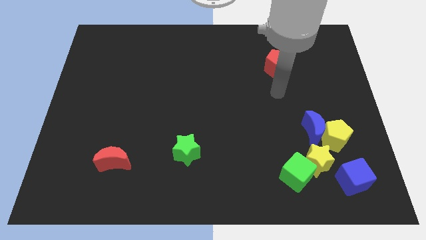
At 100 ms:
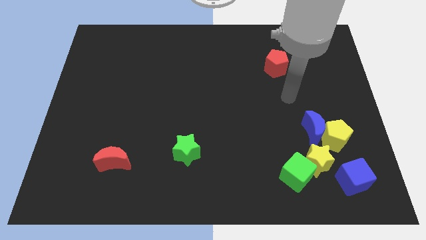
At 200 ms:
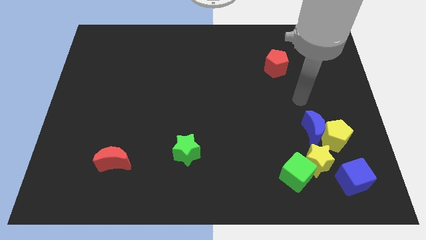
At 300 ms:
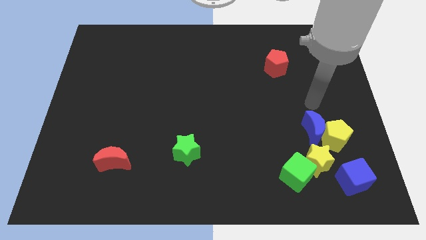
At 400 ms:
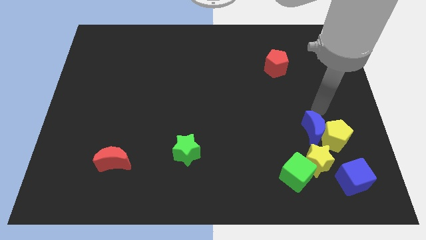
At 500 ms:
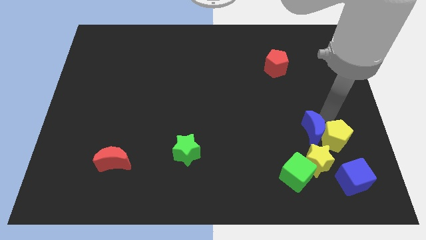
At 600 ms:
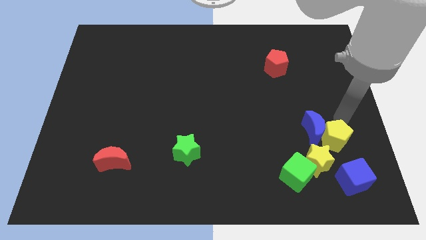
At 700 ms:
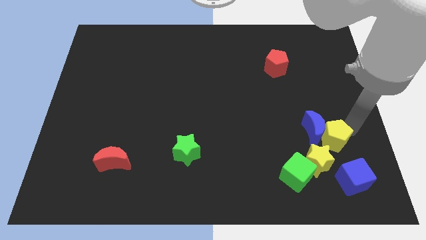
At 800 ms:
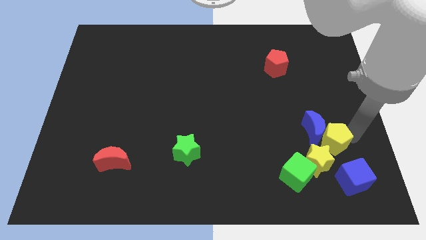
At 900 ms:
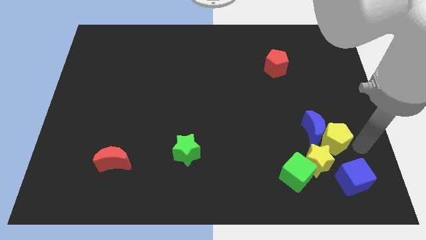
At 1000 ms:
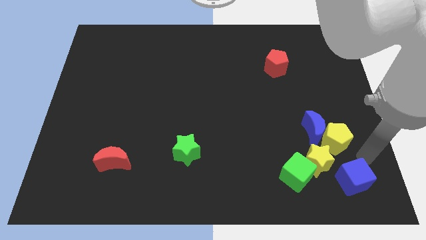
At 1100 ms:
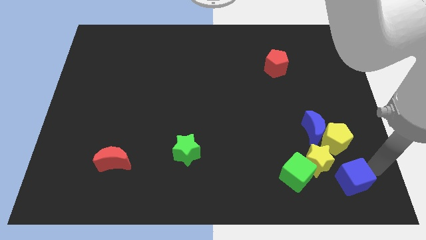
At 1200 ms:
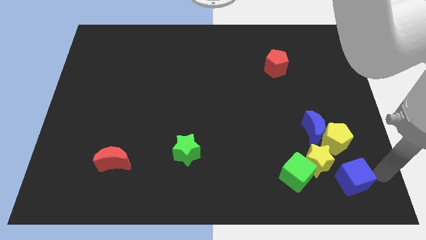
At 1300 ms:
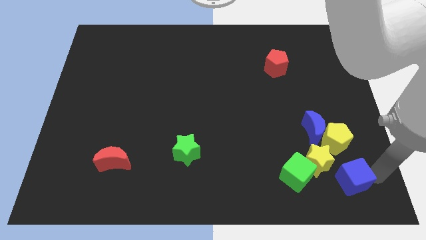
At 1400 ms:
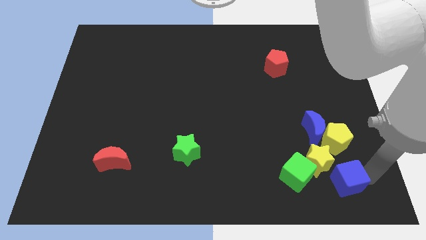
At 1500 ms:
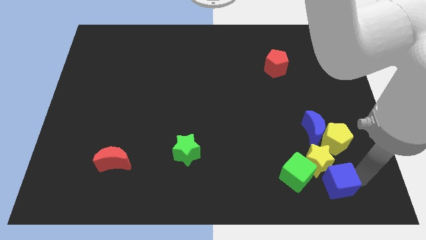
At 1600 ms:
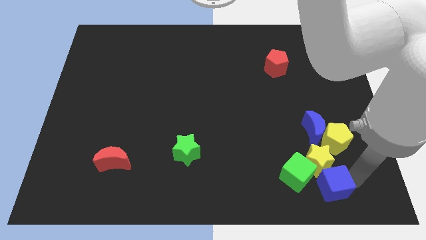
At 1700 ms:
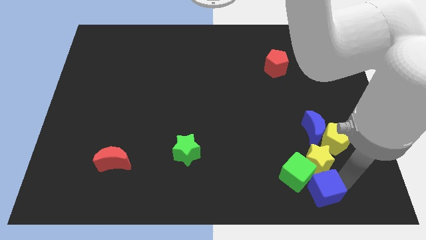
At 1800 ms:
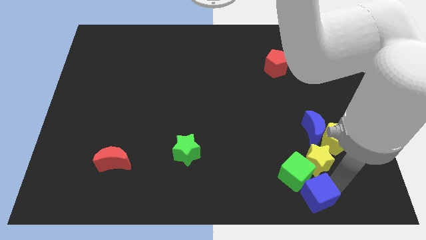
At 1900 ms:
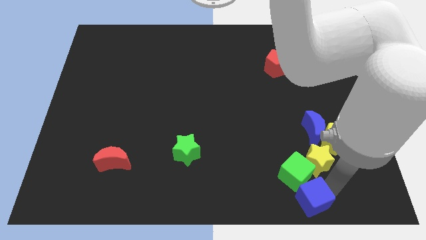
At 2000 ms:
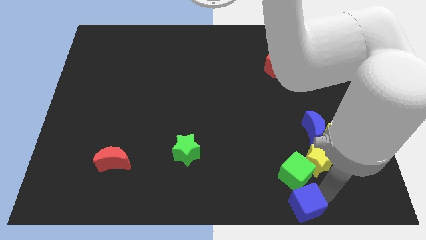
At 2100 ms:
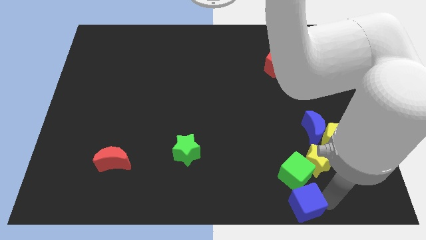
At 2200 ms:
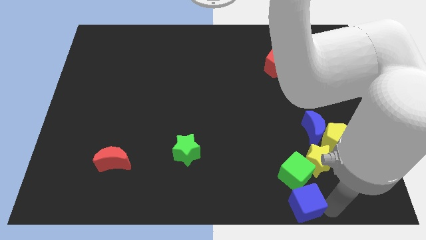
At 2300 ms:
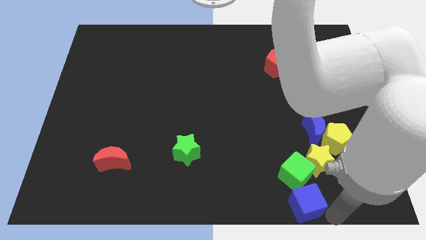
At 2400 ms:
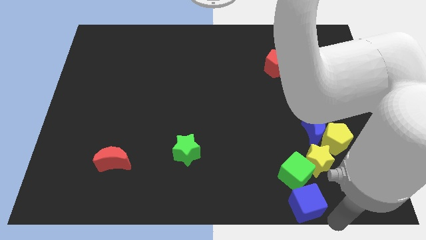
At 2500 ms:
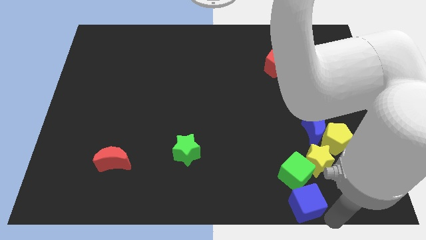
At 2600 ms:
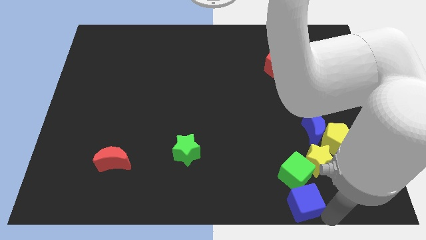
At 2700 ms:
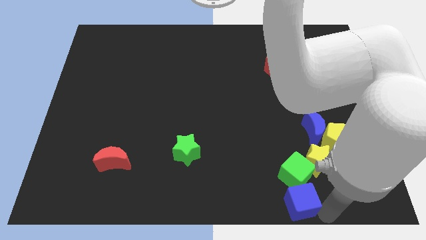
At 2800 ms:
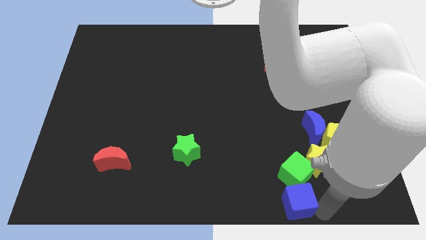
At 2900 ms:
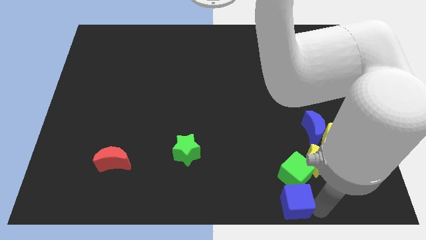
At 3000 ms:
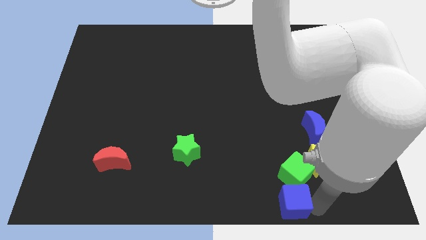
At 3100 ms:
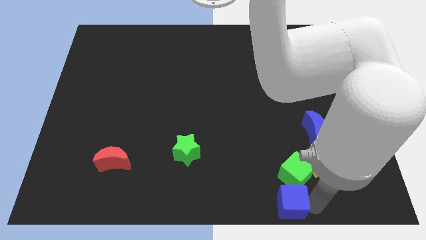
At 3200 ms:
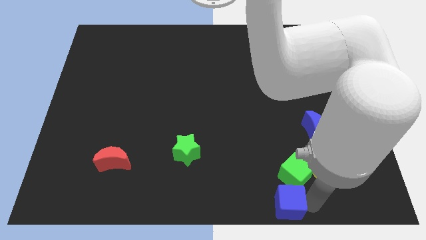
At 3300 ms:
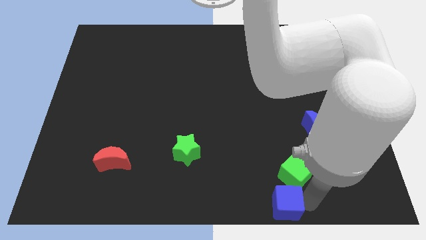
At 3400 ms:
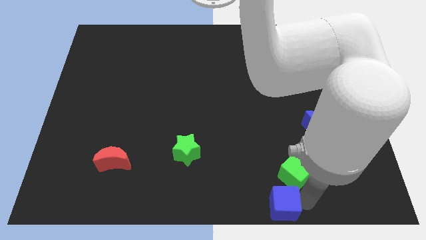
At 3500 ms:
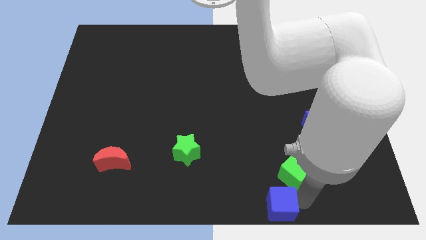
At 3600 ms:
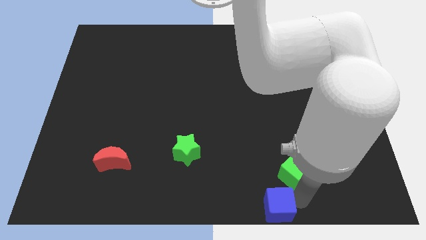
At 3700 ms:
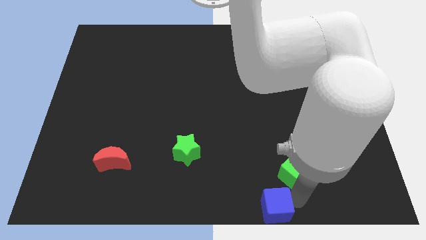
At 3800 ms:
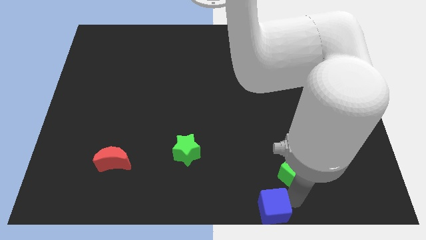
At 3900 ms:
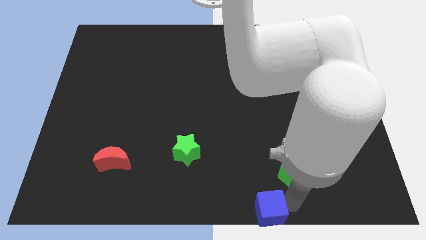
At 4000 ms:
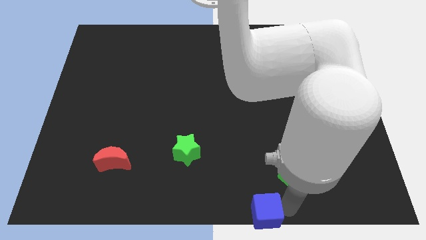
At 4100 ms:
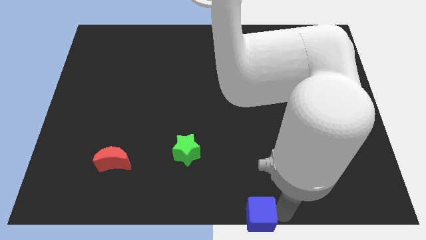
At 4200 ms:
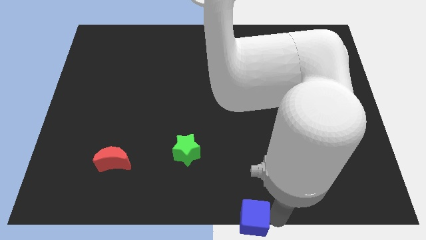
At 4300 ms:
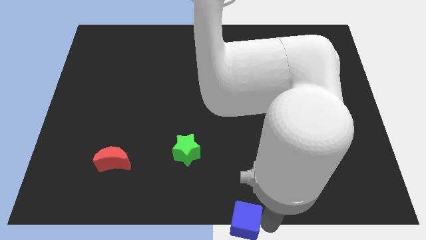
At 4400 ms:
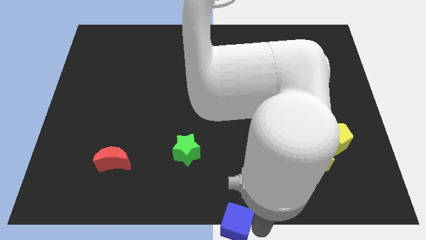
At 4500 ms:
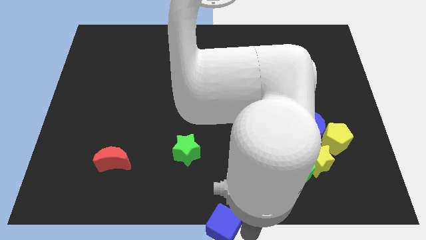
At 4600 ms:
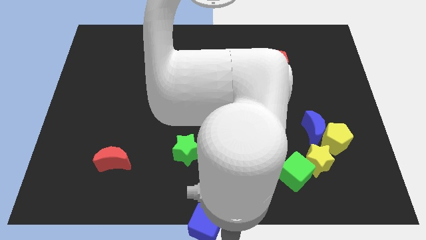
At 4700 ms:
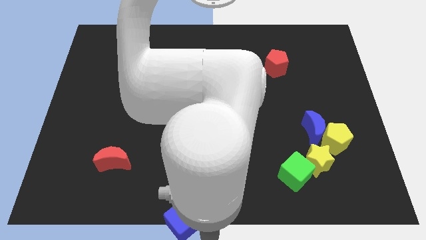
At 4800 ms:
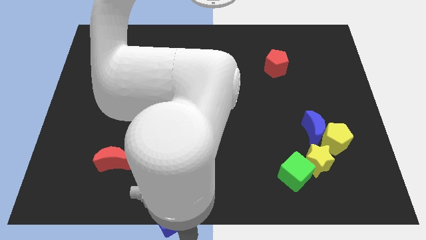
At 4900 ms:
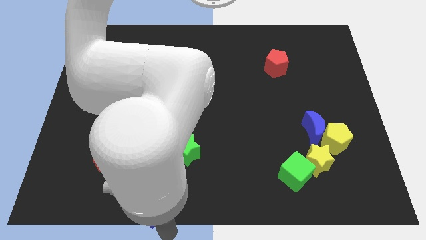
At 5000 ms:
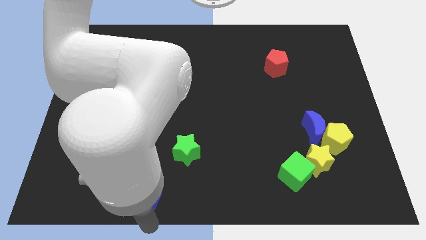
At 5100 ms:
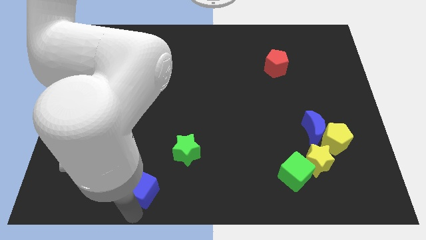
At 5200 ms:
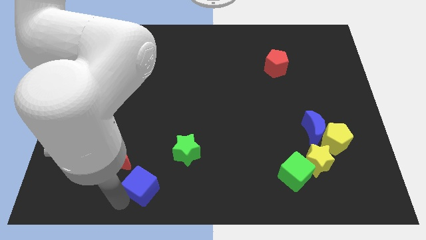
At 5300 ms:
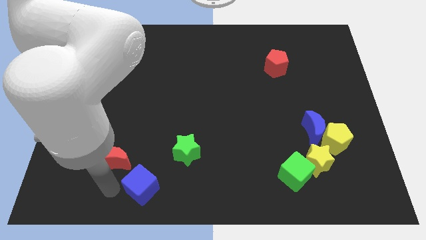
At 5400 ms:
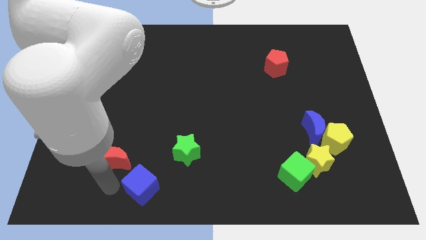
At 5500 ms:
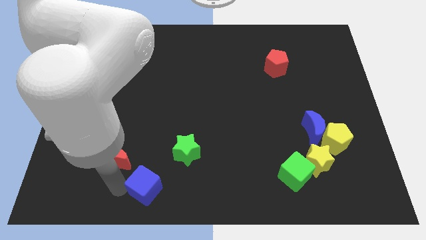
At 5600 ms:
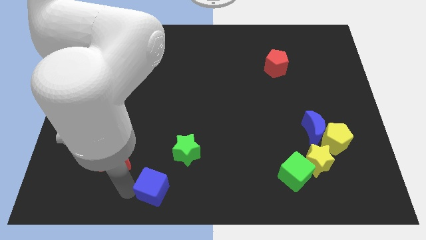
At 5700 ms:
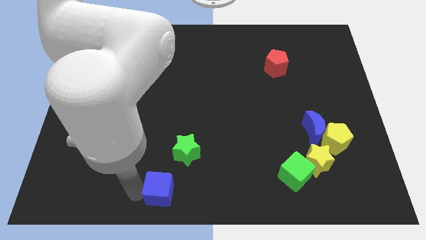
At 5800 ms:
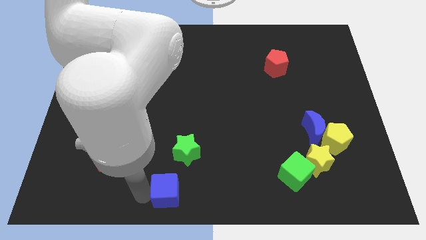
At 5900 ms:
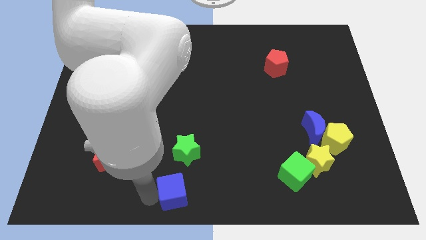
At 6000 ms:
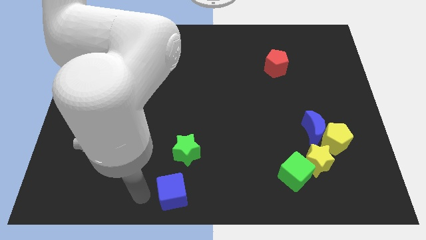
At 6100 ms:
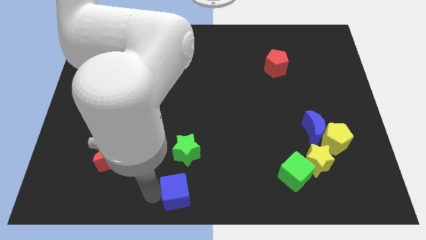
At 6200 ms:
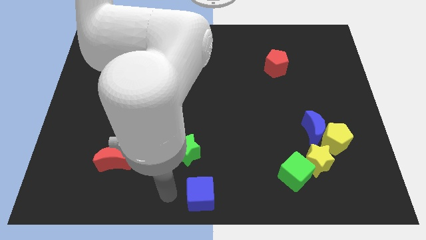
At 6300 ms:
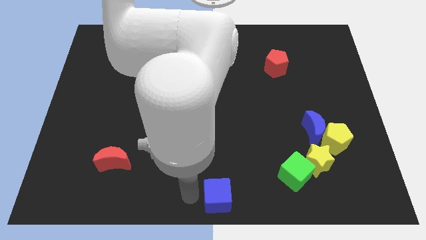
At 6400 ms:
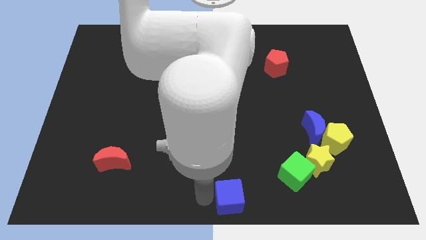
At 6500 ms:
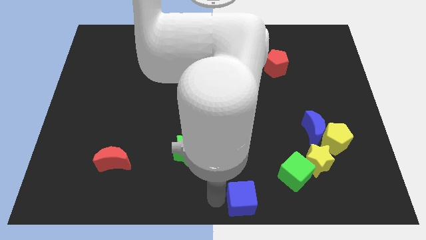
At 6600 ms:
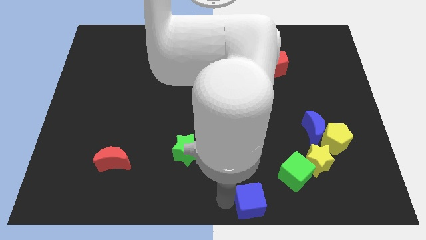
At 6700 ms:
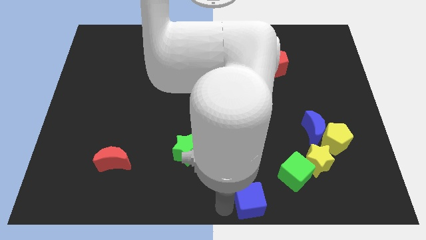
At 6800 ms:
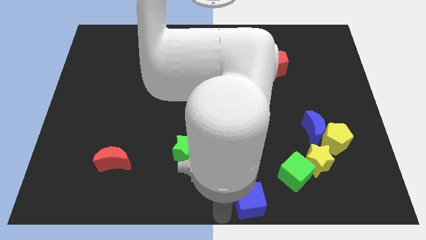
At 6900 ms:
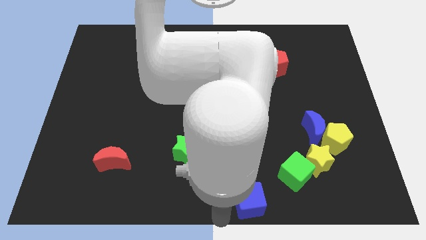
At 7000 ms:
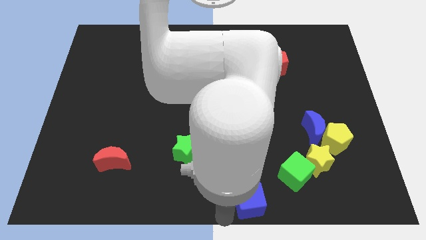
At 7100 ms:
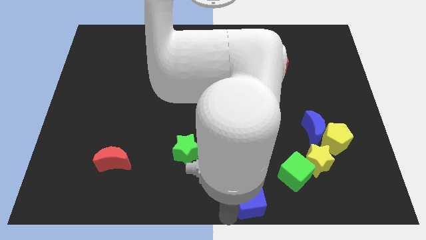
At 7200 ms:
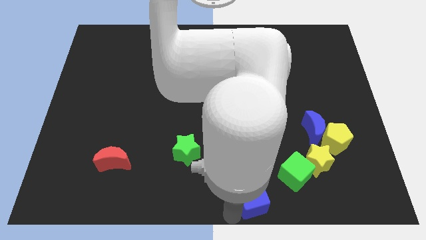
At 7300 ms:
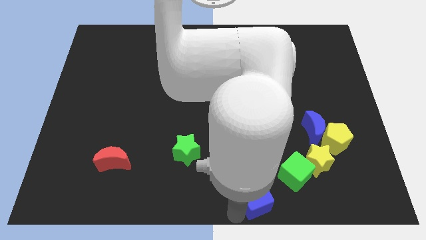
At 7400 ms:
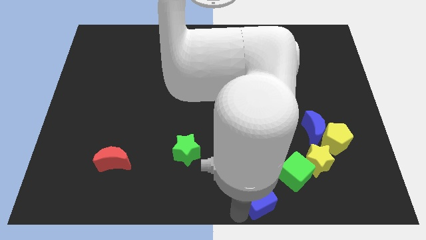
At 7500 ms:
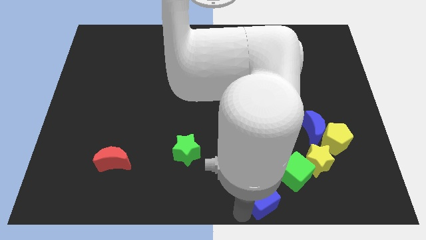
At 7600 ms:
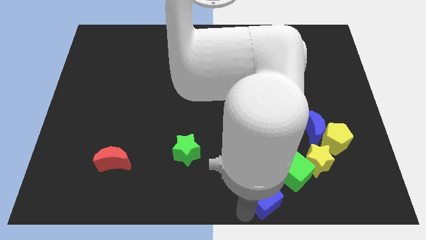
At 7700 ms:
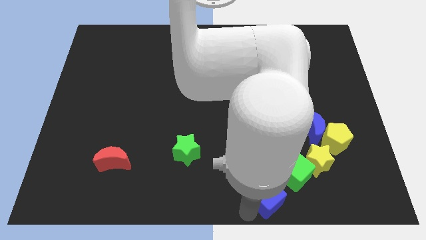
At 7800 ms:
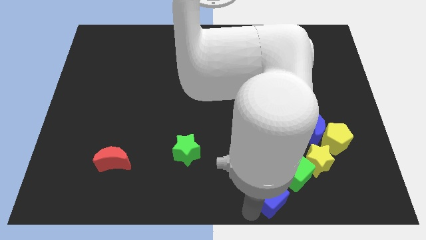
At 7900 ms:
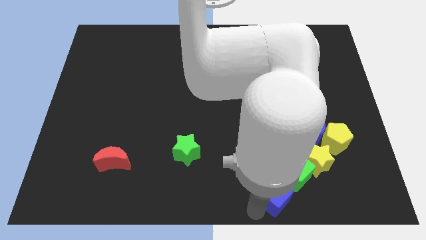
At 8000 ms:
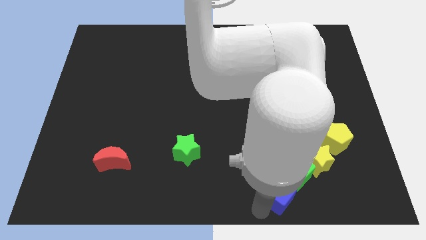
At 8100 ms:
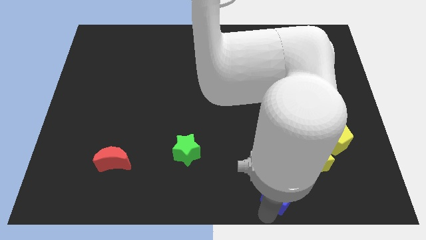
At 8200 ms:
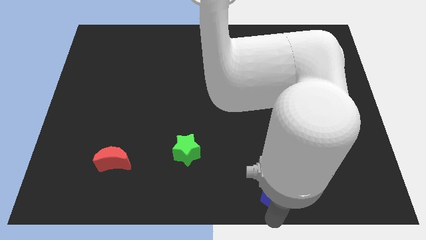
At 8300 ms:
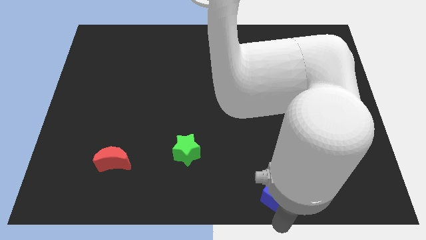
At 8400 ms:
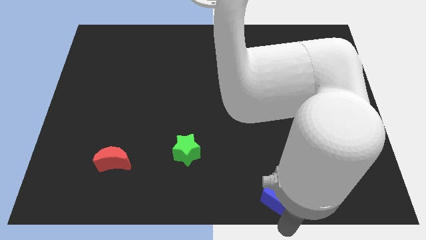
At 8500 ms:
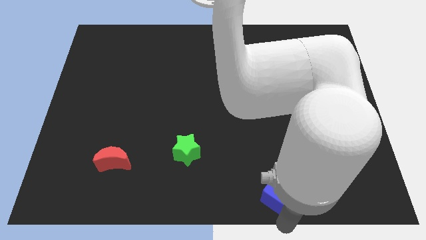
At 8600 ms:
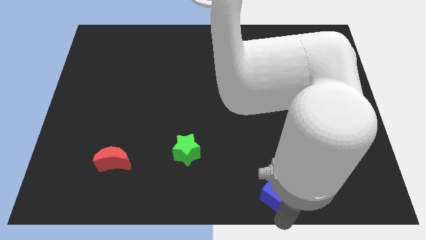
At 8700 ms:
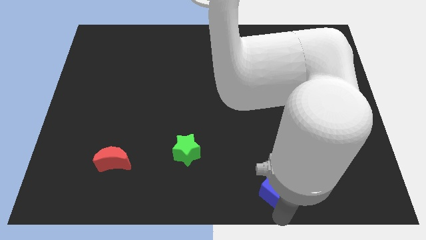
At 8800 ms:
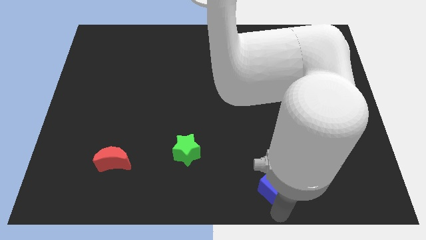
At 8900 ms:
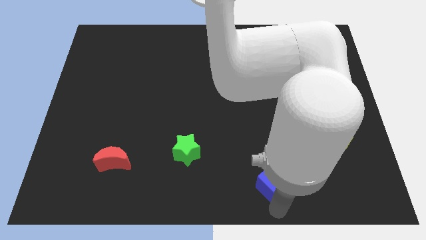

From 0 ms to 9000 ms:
move the blue cube to the left side of the yellow star
